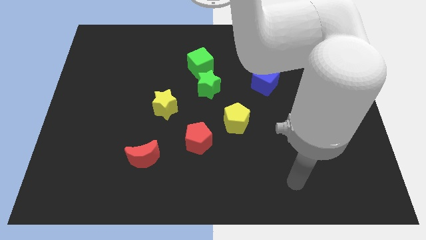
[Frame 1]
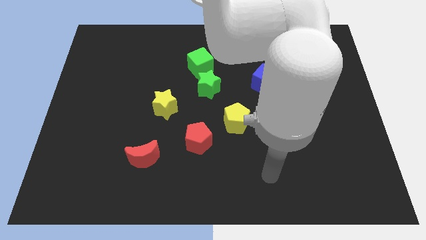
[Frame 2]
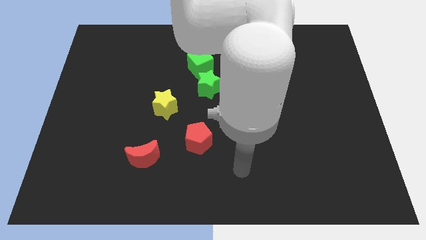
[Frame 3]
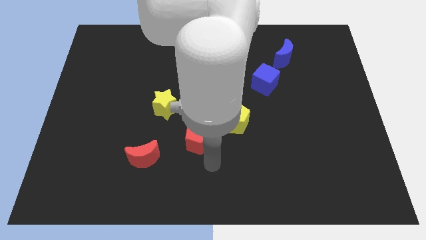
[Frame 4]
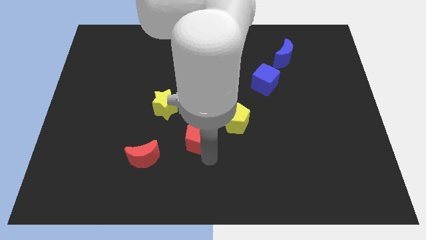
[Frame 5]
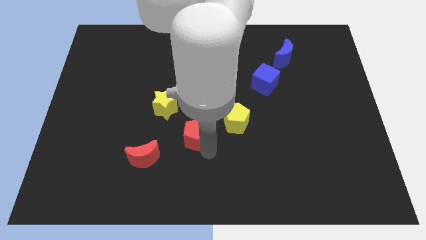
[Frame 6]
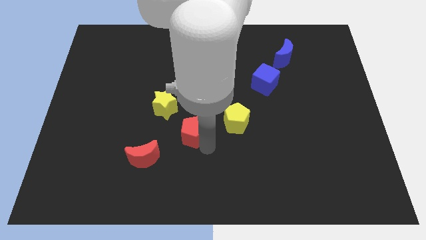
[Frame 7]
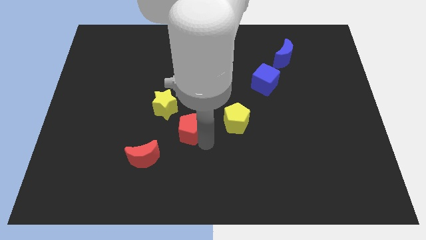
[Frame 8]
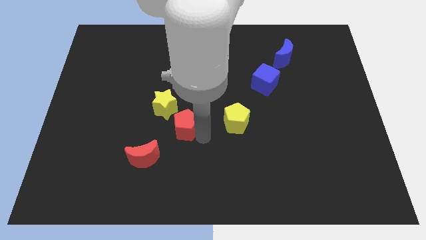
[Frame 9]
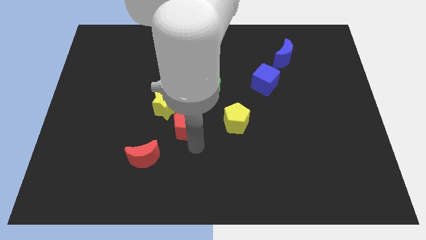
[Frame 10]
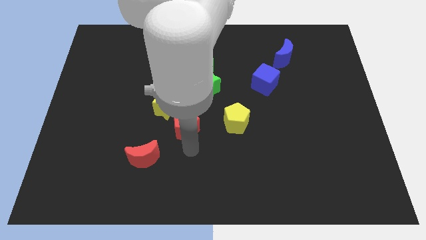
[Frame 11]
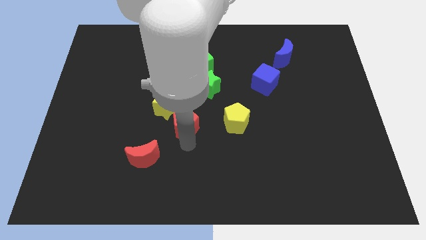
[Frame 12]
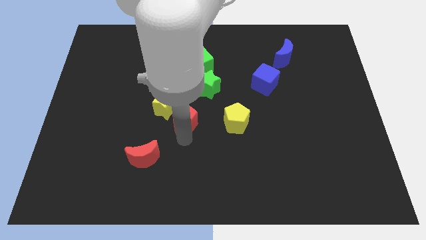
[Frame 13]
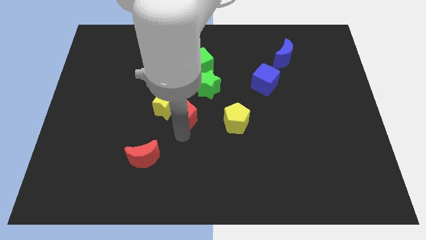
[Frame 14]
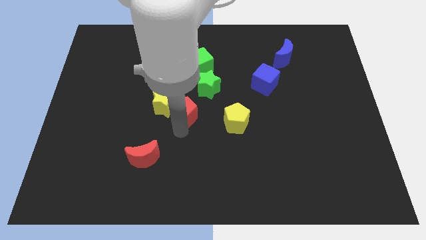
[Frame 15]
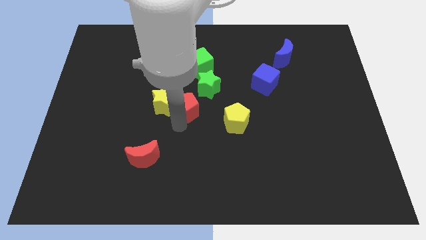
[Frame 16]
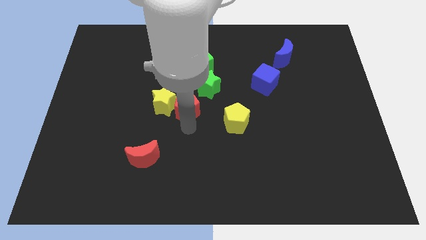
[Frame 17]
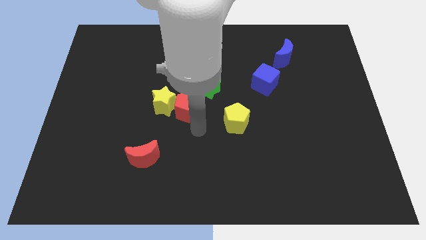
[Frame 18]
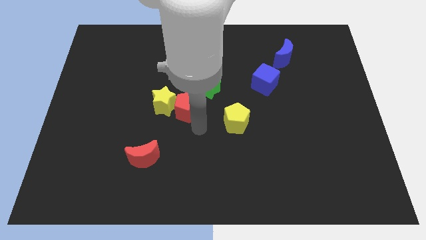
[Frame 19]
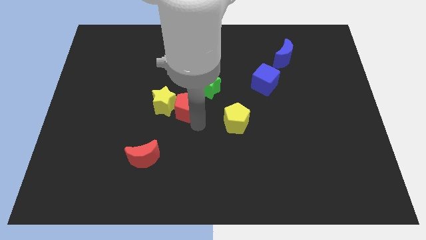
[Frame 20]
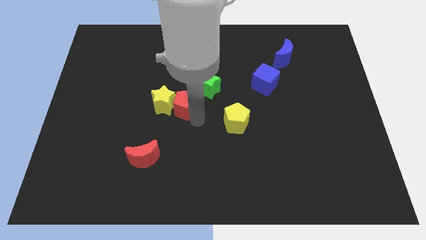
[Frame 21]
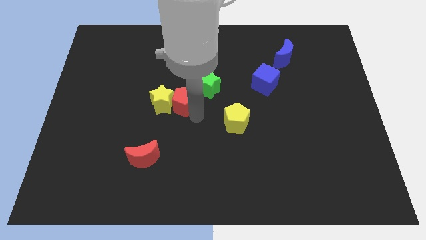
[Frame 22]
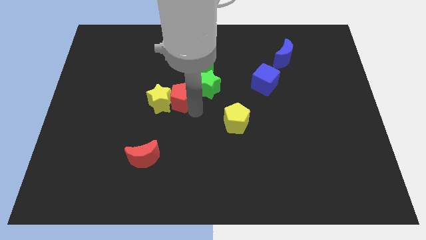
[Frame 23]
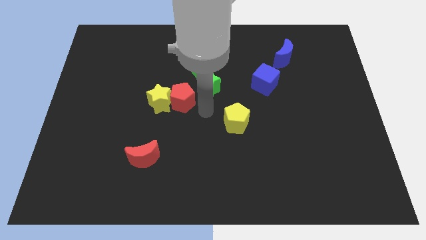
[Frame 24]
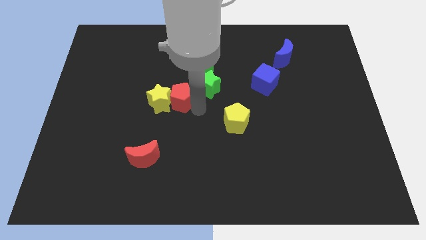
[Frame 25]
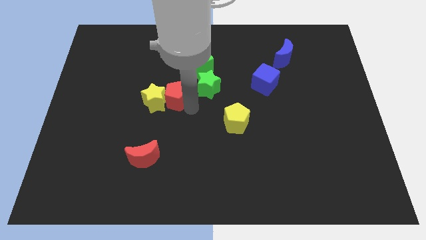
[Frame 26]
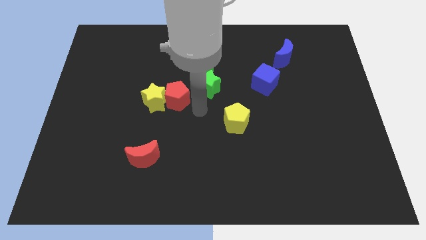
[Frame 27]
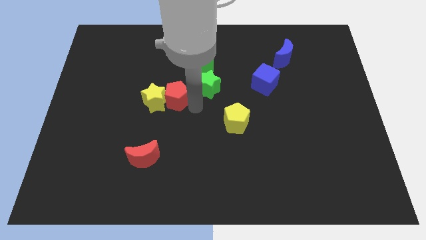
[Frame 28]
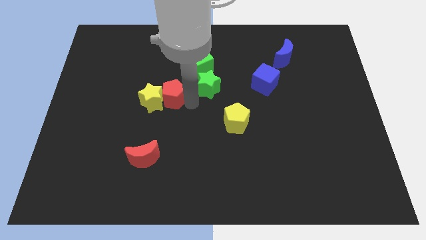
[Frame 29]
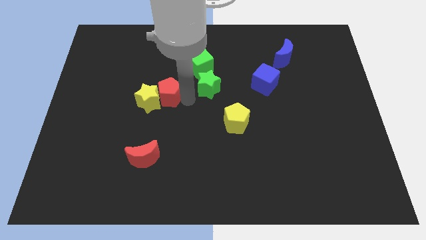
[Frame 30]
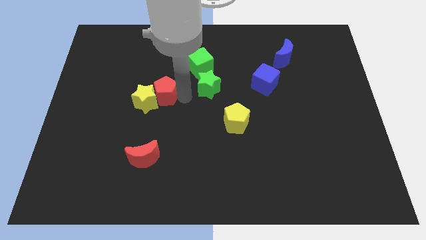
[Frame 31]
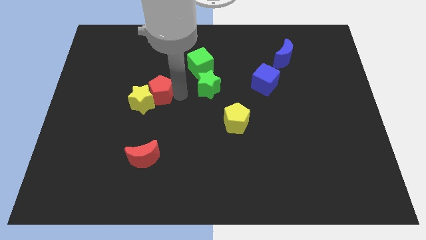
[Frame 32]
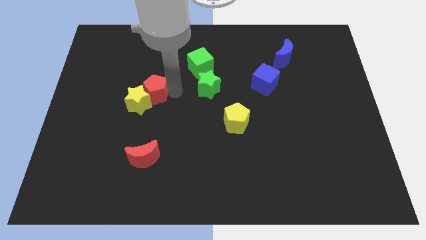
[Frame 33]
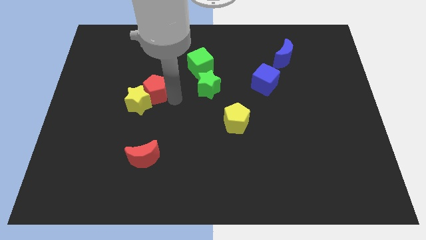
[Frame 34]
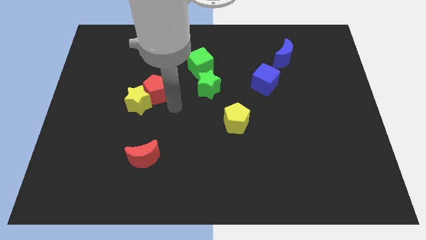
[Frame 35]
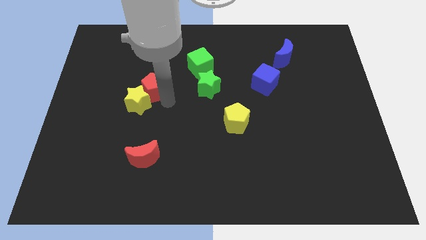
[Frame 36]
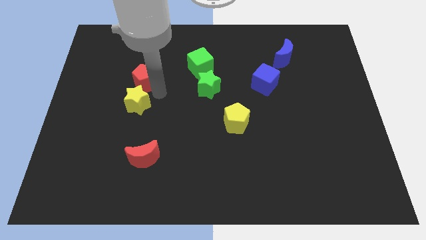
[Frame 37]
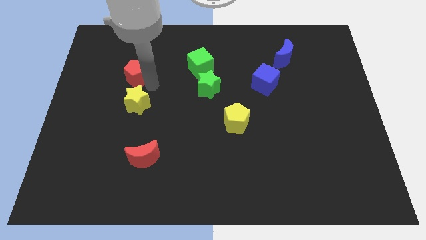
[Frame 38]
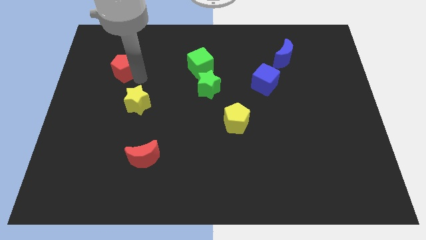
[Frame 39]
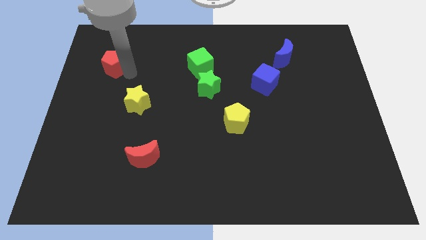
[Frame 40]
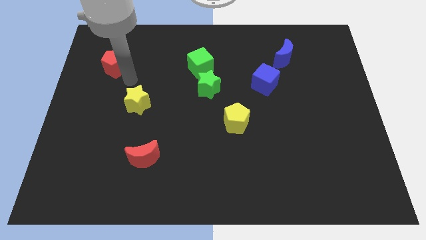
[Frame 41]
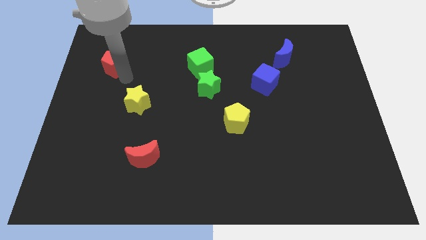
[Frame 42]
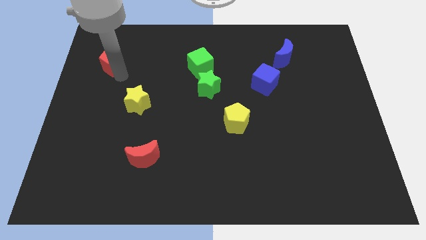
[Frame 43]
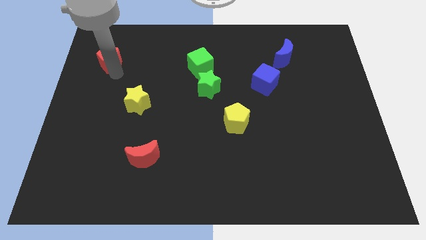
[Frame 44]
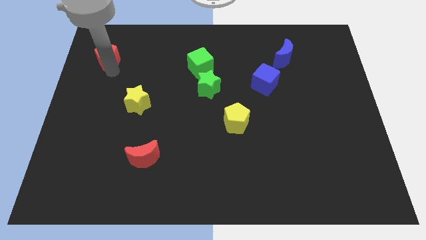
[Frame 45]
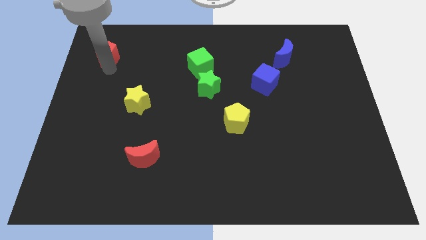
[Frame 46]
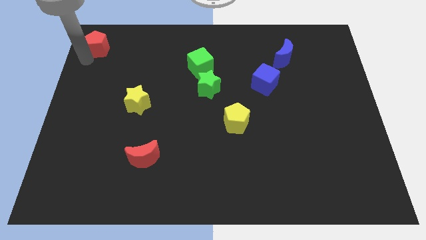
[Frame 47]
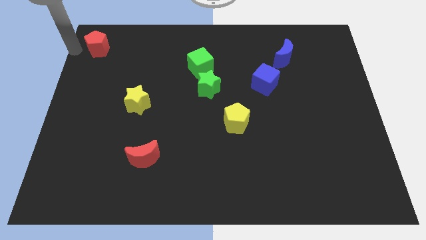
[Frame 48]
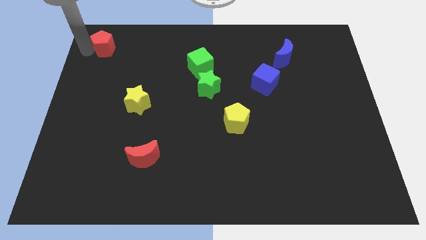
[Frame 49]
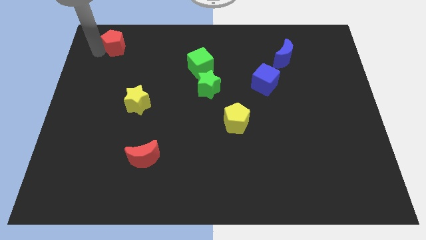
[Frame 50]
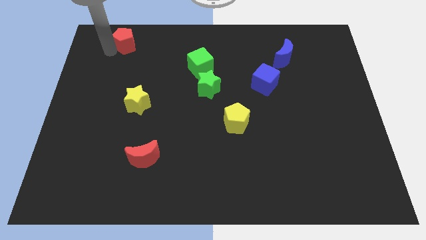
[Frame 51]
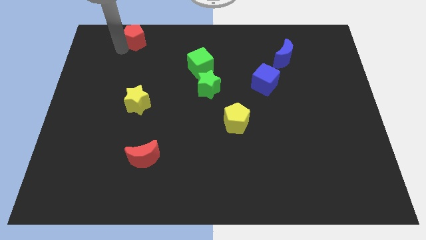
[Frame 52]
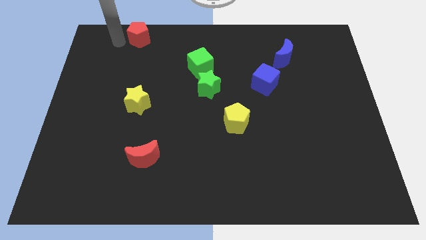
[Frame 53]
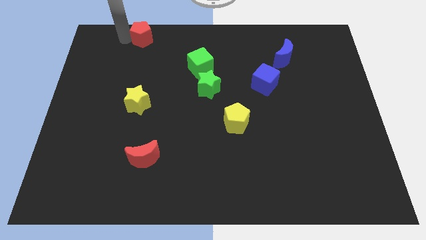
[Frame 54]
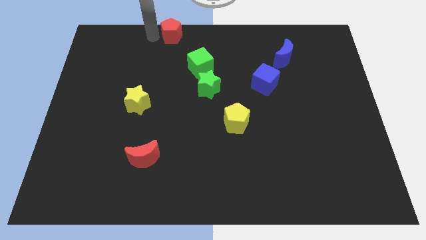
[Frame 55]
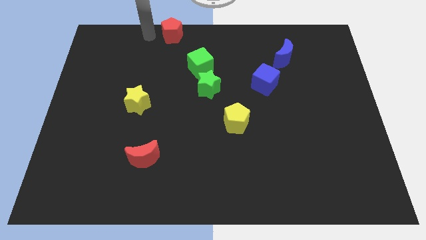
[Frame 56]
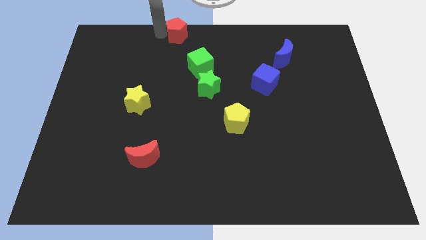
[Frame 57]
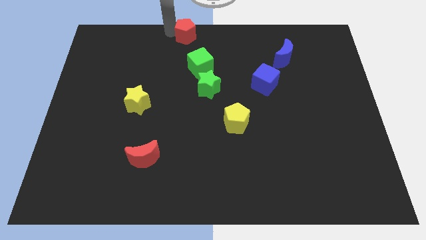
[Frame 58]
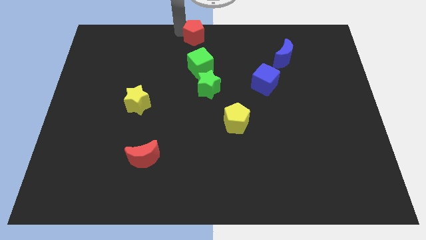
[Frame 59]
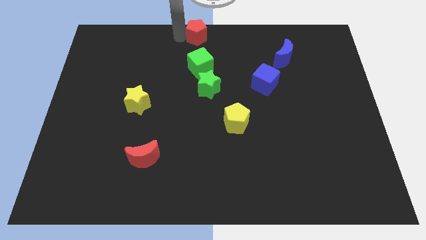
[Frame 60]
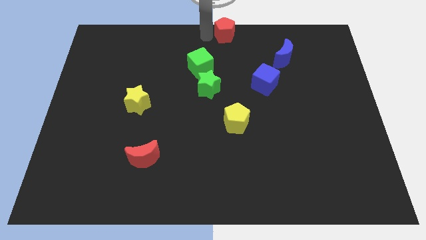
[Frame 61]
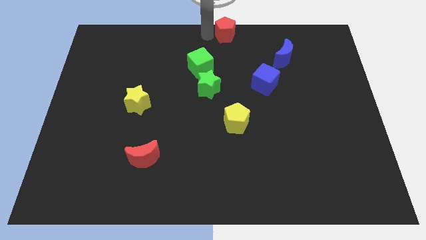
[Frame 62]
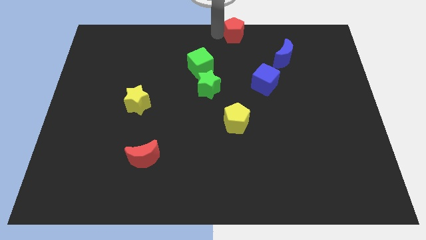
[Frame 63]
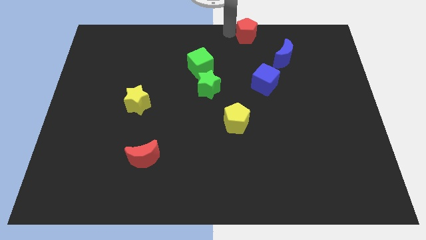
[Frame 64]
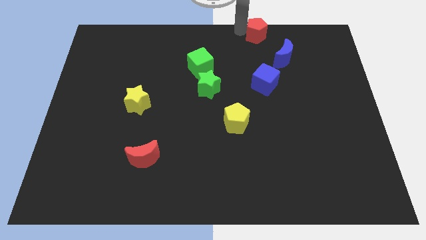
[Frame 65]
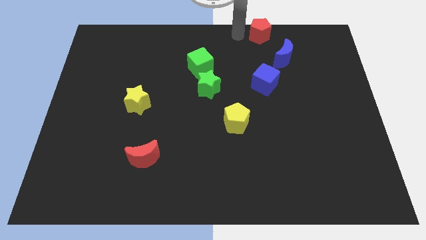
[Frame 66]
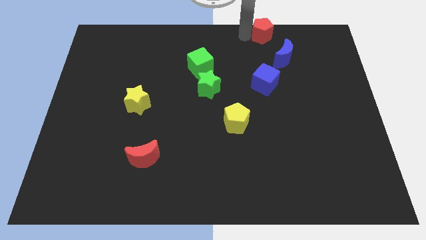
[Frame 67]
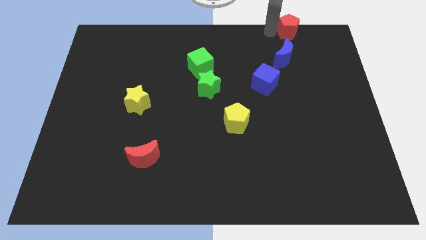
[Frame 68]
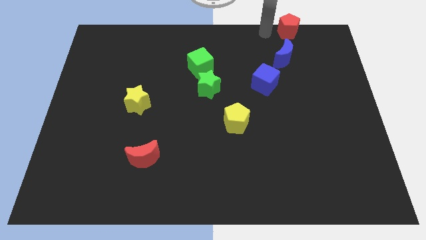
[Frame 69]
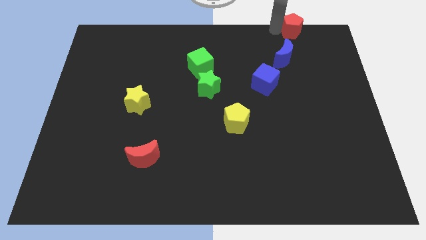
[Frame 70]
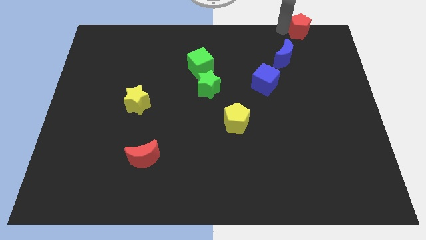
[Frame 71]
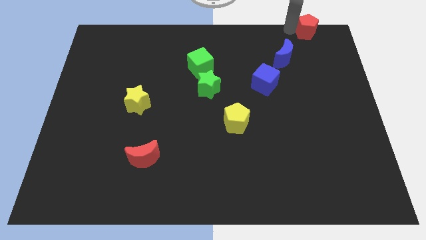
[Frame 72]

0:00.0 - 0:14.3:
push the red pentagon to the top right corner

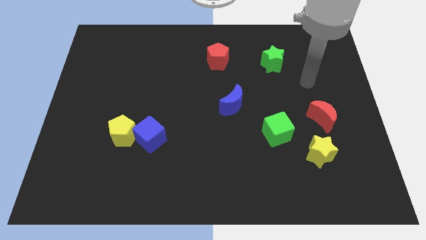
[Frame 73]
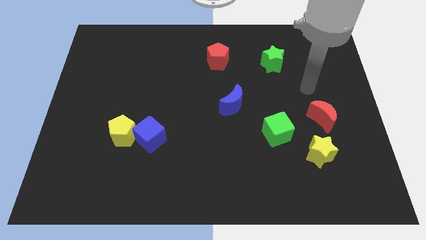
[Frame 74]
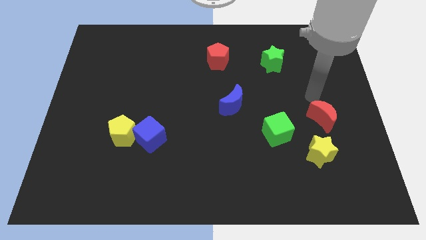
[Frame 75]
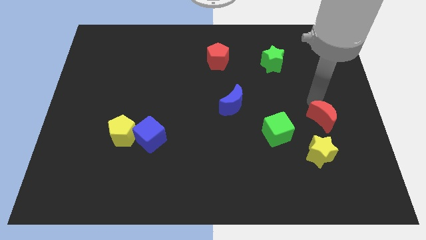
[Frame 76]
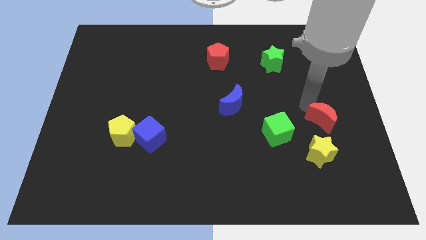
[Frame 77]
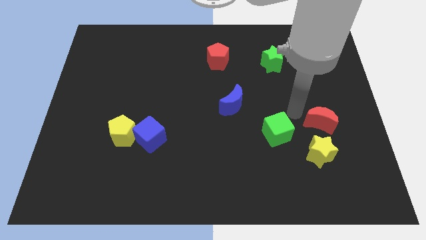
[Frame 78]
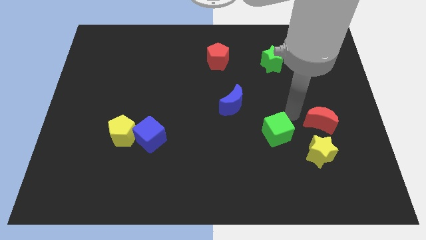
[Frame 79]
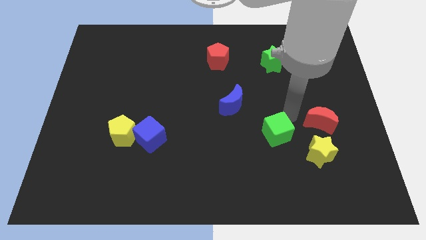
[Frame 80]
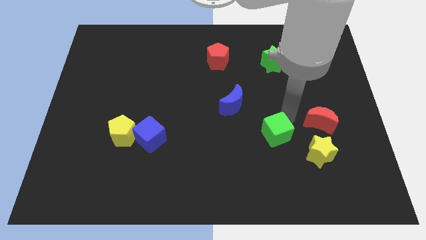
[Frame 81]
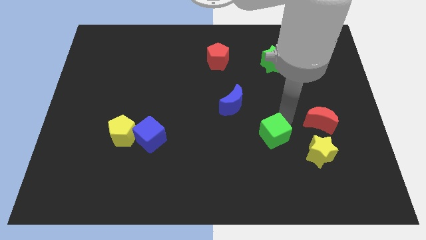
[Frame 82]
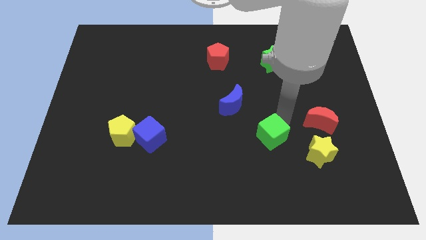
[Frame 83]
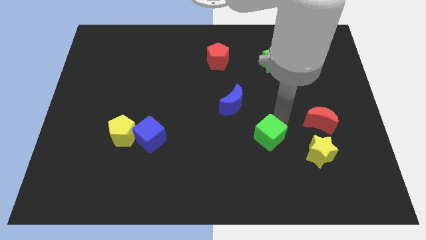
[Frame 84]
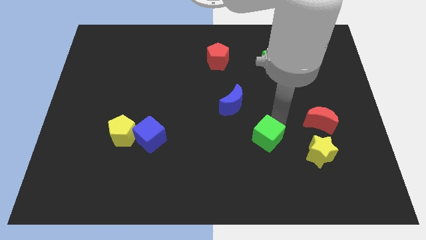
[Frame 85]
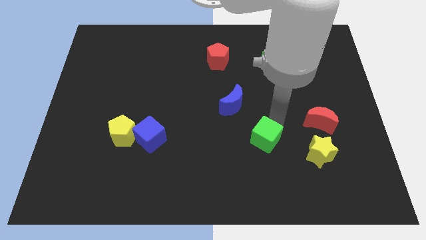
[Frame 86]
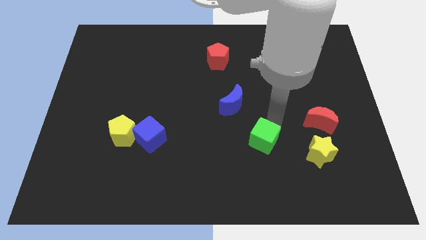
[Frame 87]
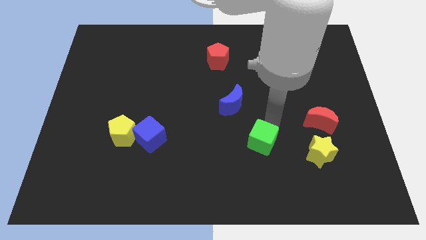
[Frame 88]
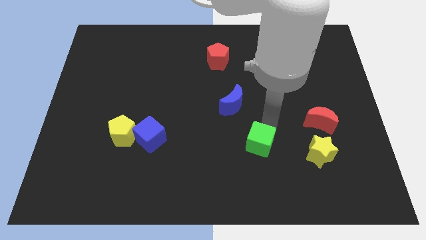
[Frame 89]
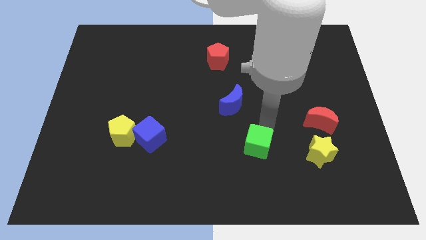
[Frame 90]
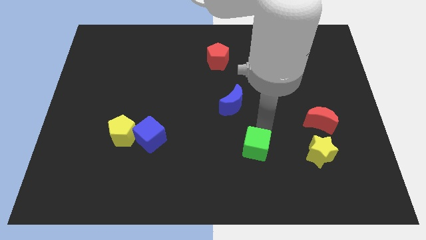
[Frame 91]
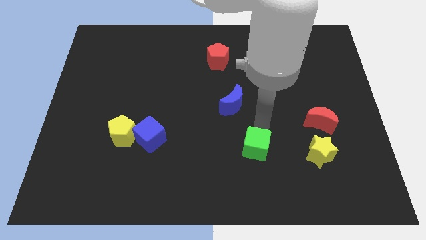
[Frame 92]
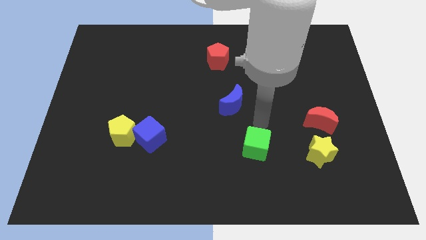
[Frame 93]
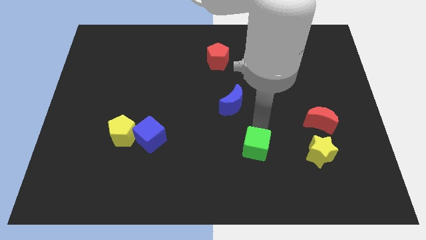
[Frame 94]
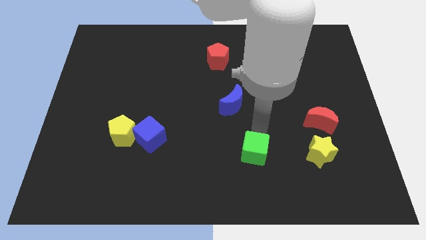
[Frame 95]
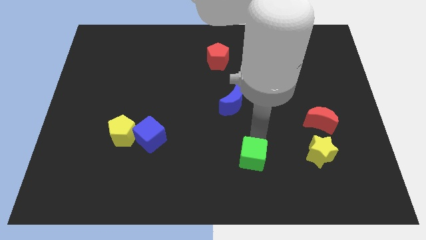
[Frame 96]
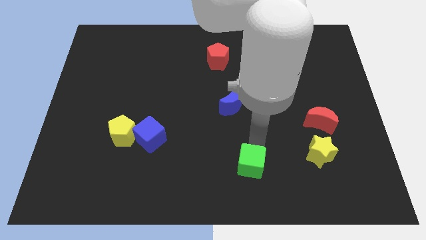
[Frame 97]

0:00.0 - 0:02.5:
move the green cube to the bottom
